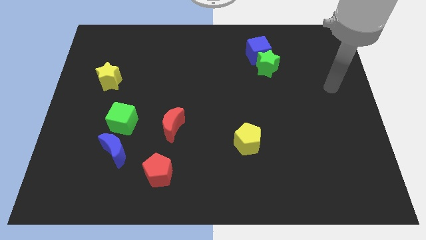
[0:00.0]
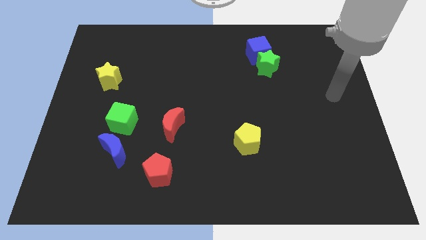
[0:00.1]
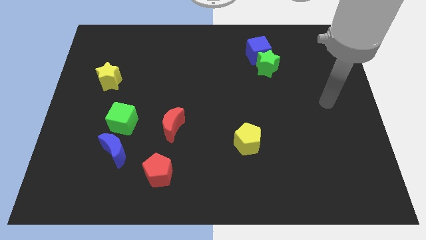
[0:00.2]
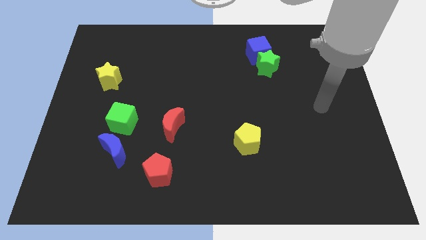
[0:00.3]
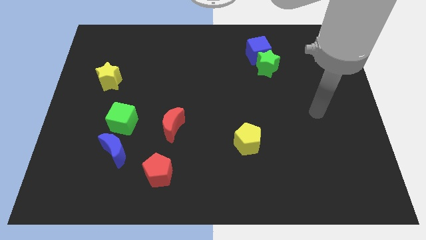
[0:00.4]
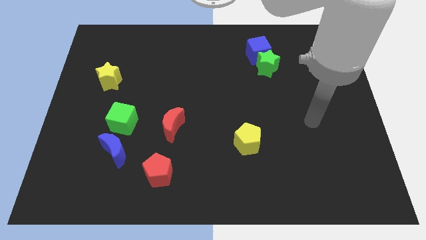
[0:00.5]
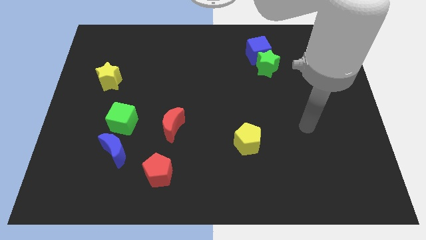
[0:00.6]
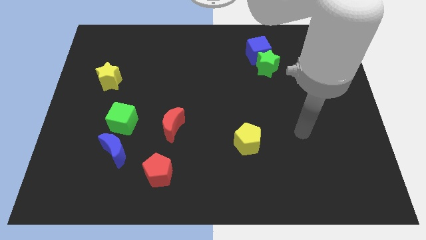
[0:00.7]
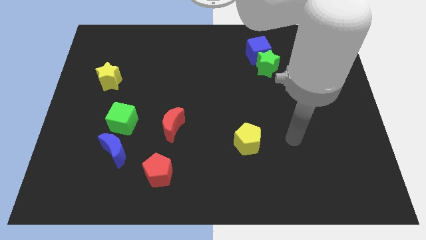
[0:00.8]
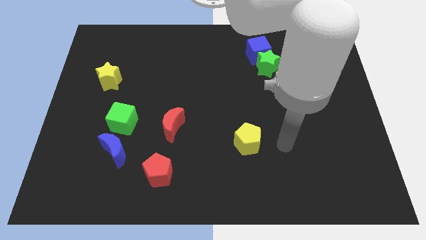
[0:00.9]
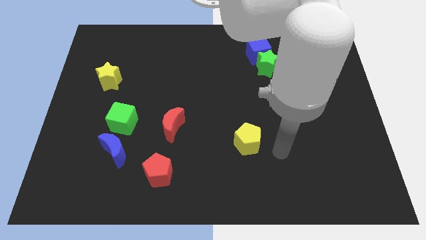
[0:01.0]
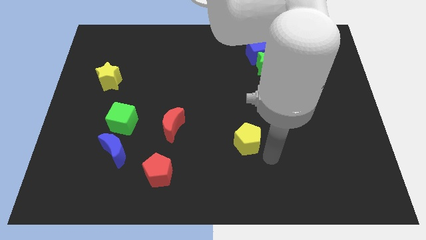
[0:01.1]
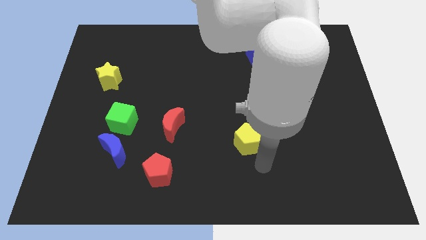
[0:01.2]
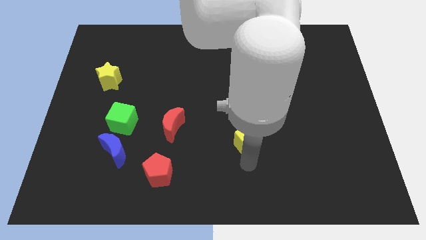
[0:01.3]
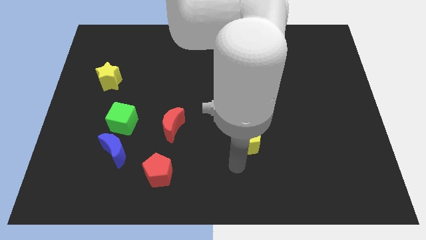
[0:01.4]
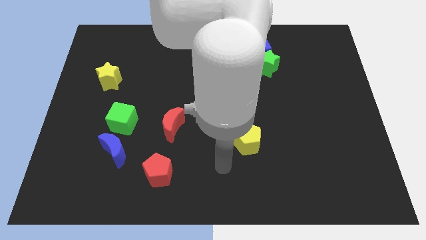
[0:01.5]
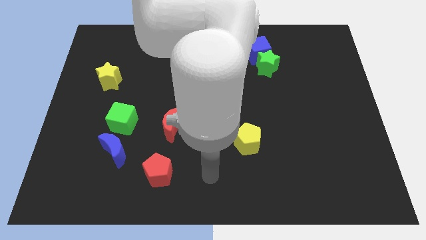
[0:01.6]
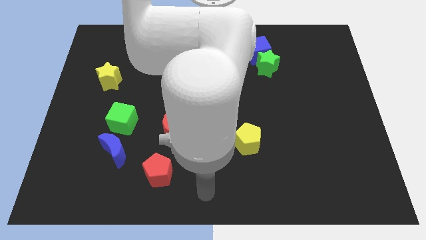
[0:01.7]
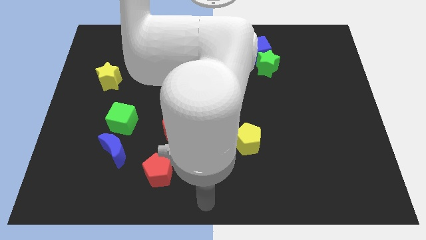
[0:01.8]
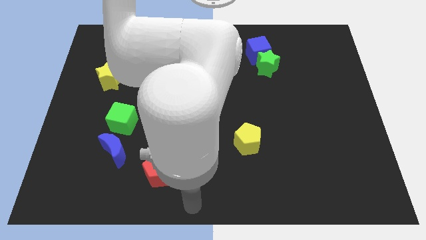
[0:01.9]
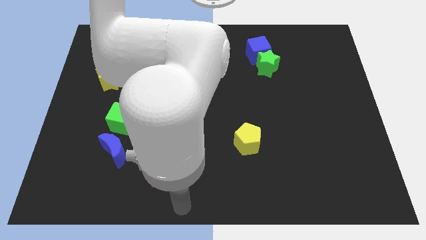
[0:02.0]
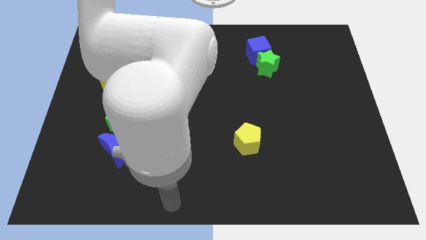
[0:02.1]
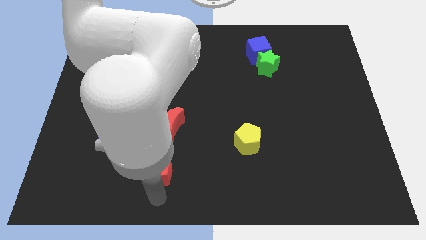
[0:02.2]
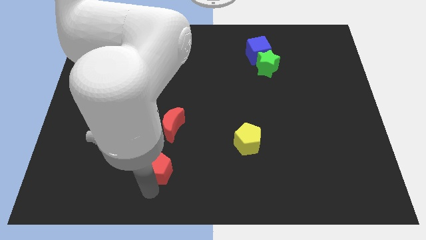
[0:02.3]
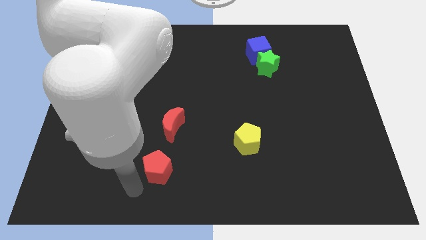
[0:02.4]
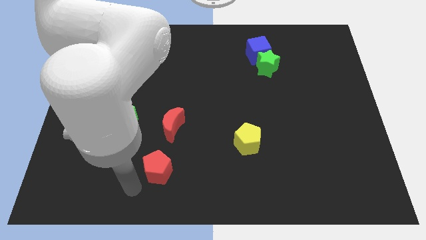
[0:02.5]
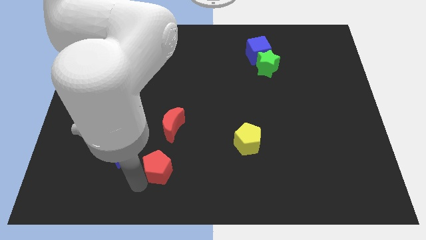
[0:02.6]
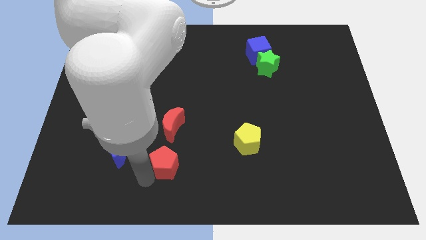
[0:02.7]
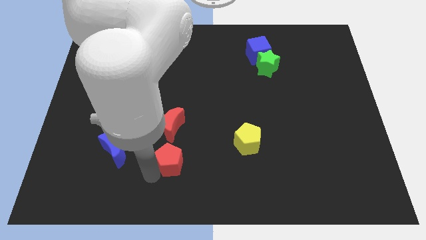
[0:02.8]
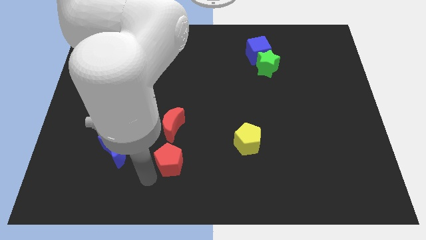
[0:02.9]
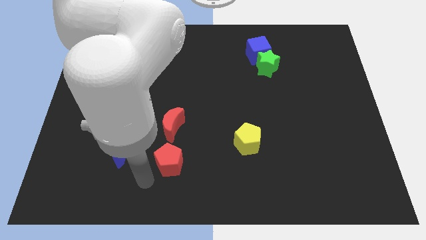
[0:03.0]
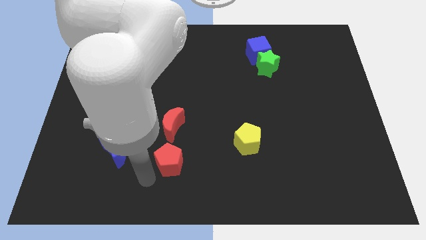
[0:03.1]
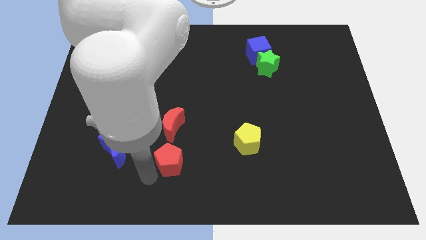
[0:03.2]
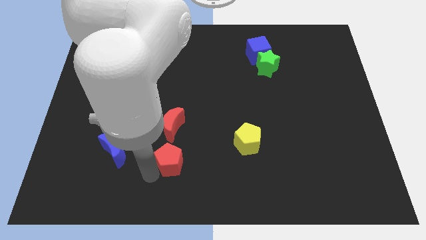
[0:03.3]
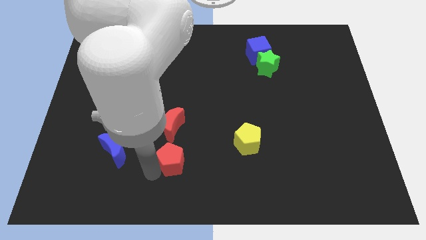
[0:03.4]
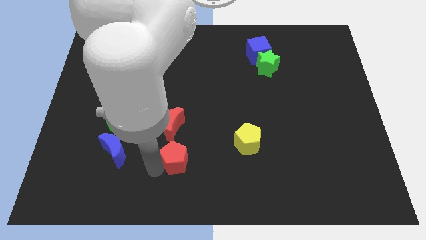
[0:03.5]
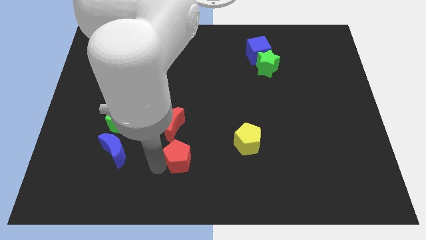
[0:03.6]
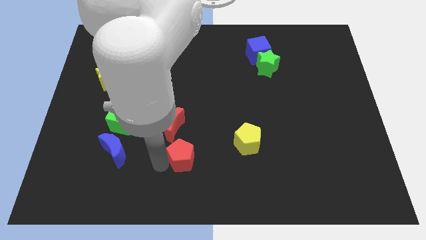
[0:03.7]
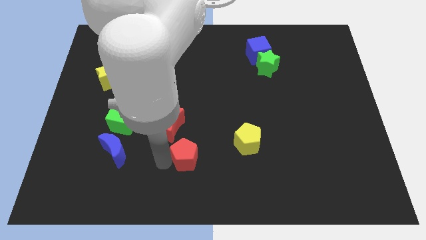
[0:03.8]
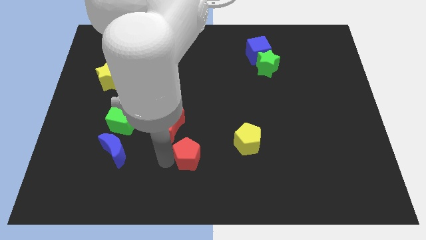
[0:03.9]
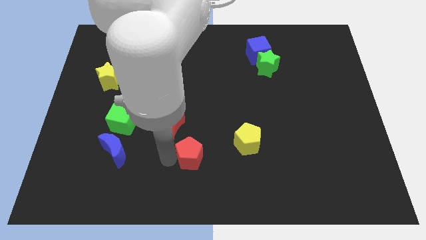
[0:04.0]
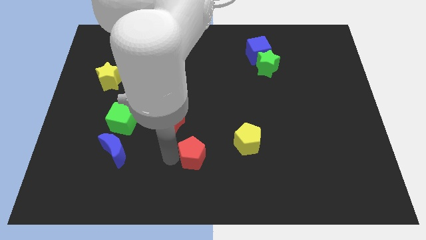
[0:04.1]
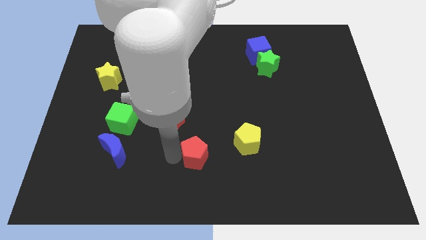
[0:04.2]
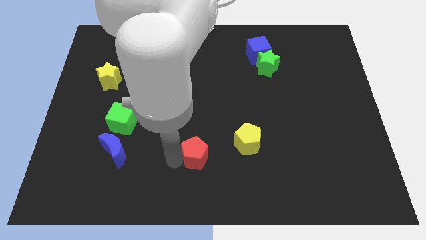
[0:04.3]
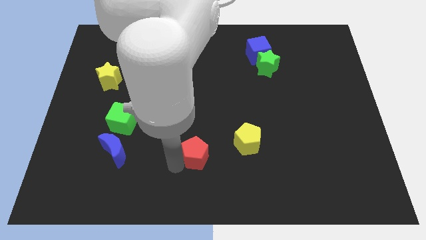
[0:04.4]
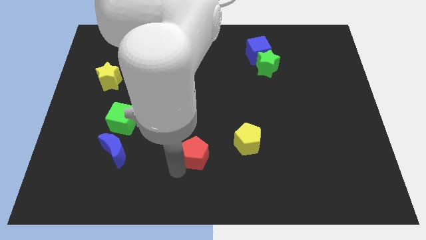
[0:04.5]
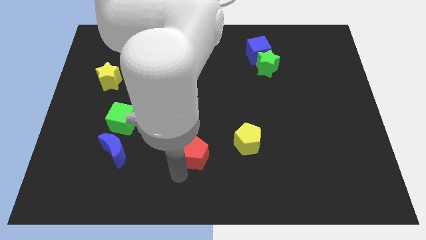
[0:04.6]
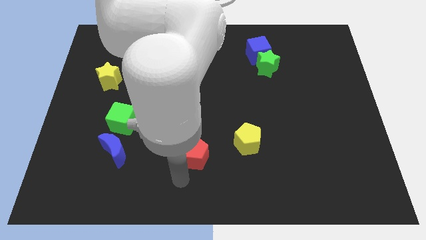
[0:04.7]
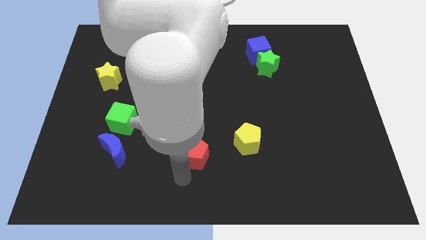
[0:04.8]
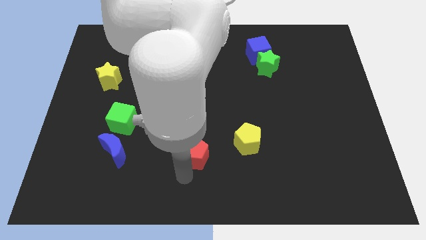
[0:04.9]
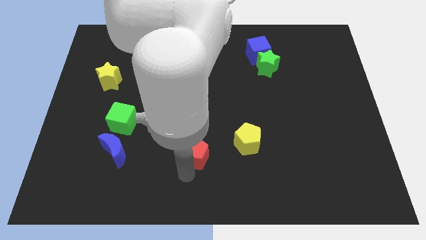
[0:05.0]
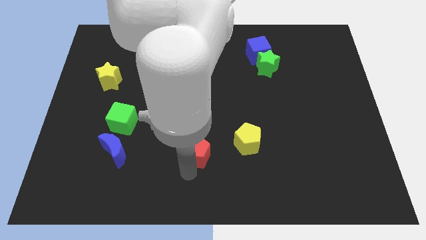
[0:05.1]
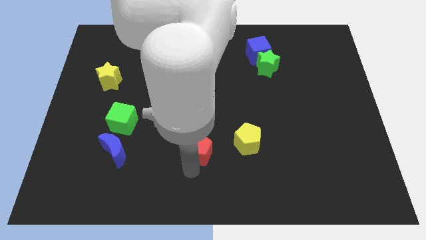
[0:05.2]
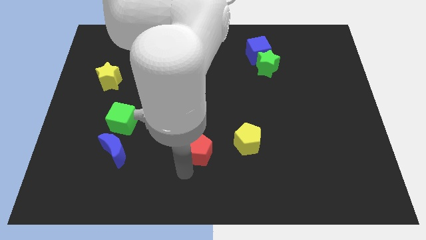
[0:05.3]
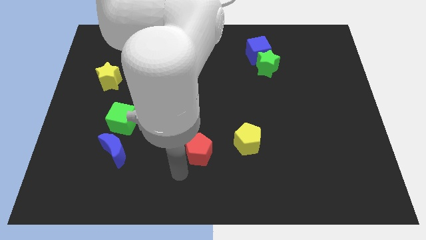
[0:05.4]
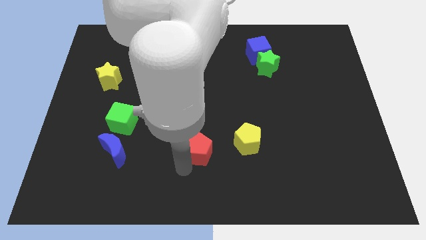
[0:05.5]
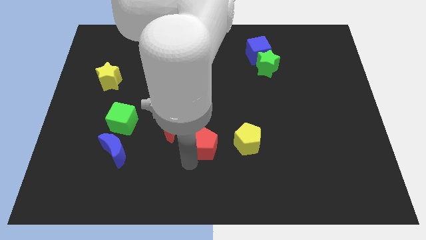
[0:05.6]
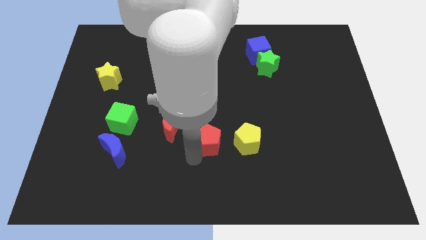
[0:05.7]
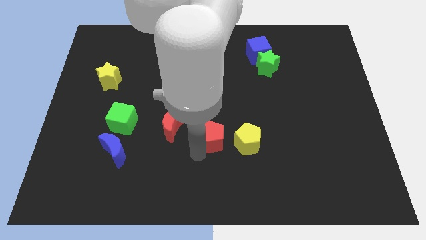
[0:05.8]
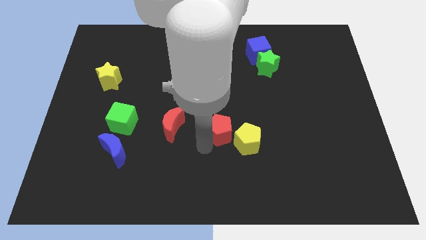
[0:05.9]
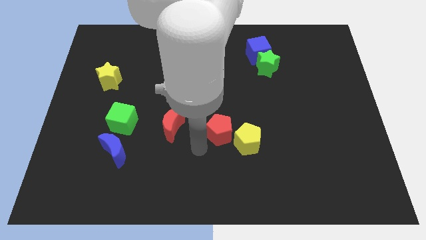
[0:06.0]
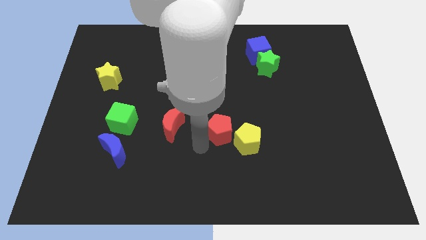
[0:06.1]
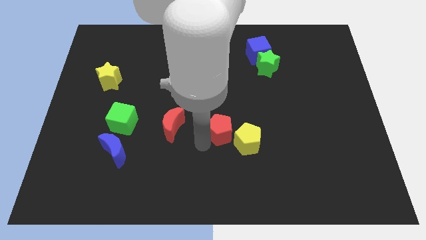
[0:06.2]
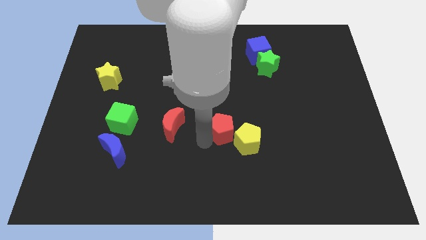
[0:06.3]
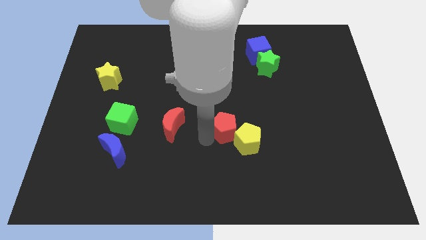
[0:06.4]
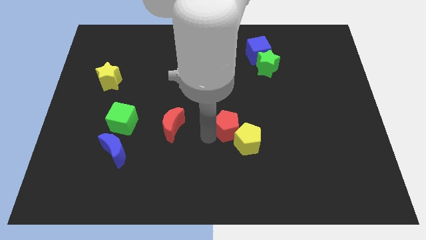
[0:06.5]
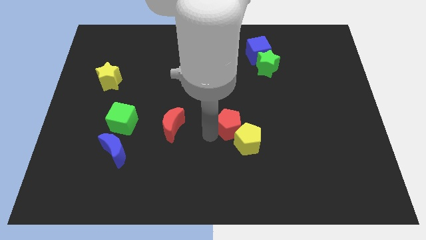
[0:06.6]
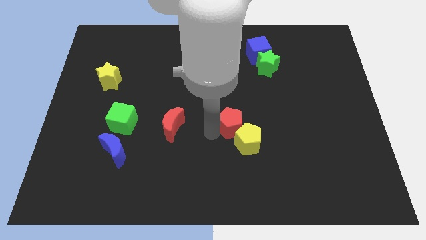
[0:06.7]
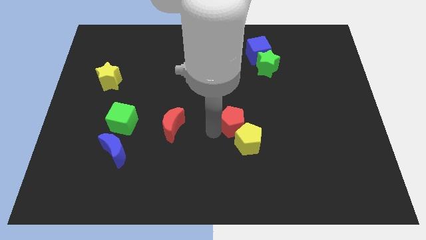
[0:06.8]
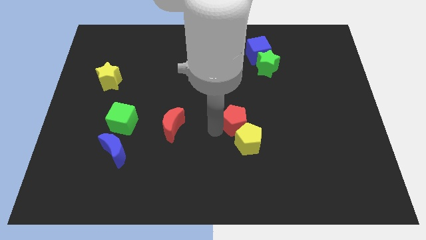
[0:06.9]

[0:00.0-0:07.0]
move the red pentagon upwards and then to the right

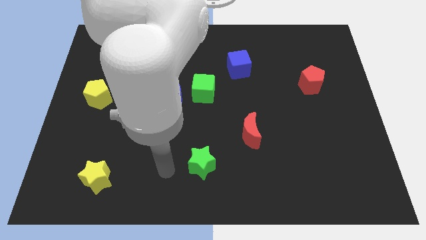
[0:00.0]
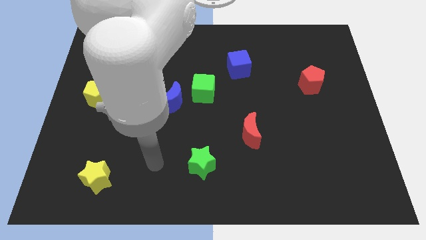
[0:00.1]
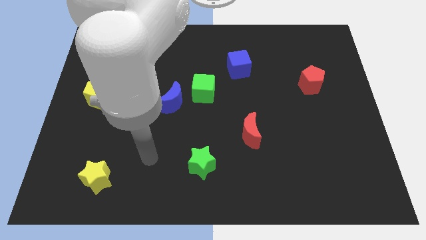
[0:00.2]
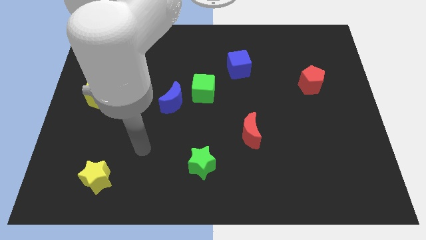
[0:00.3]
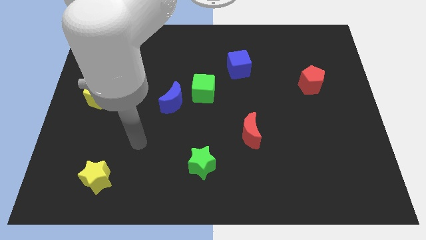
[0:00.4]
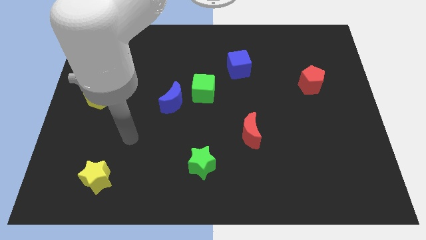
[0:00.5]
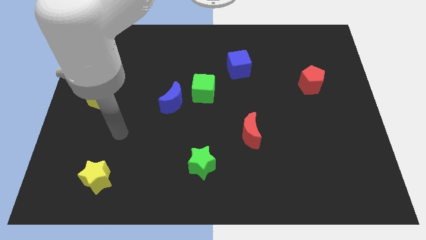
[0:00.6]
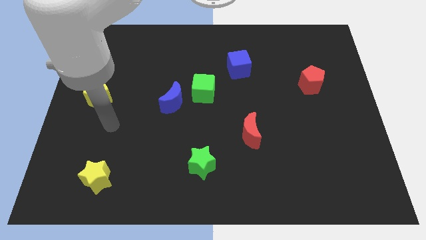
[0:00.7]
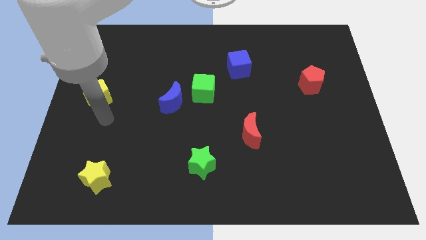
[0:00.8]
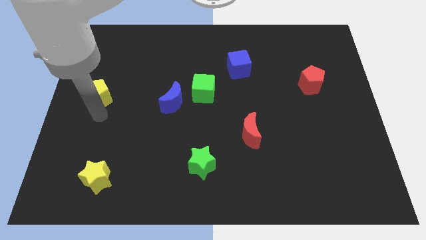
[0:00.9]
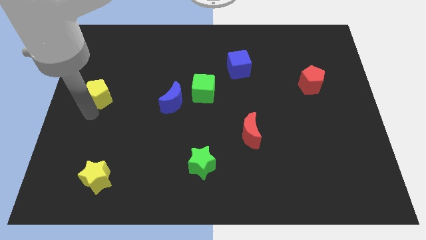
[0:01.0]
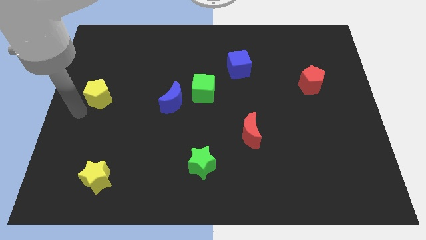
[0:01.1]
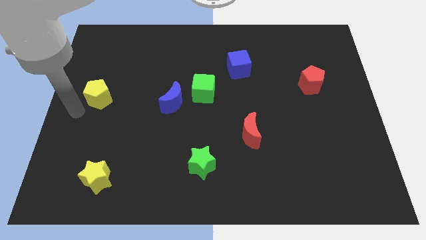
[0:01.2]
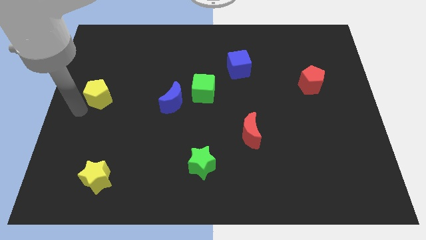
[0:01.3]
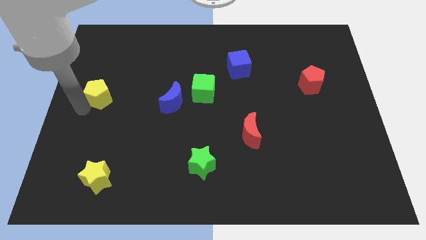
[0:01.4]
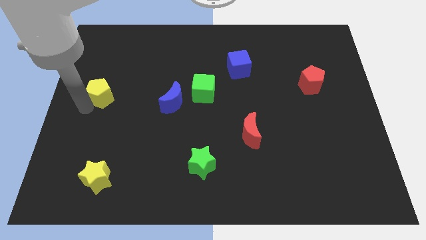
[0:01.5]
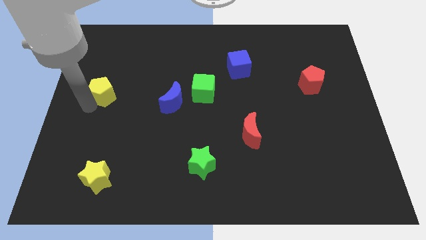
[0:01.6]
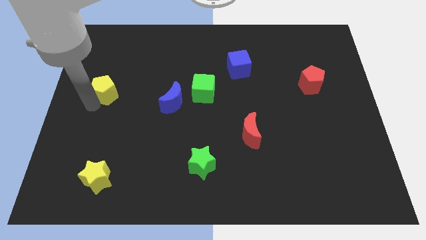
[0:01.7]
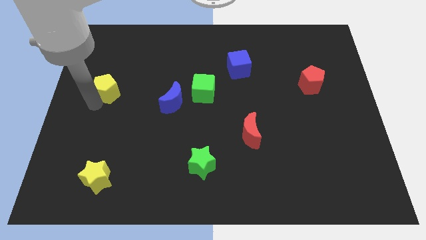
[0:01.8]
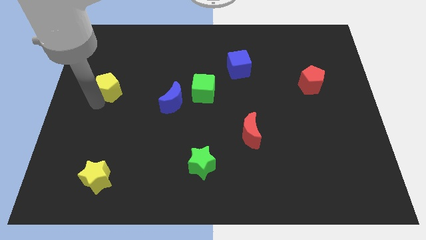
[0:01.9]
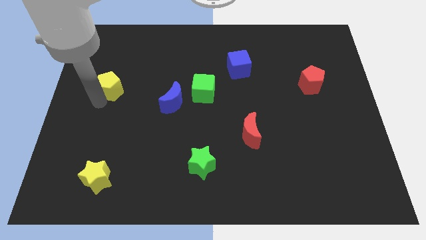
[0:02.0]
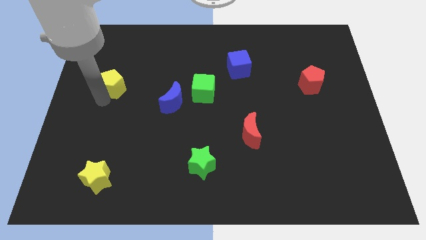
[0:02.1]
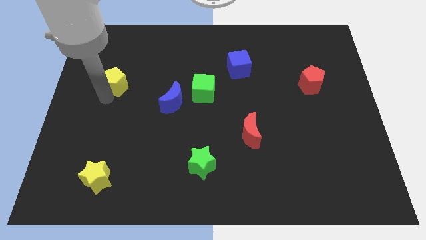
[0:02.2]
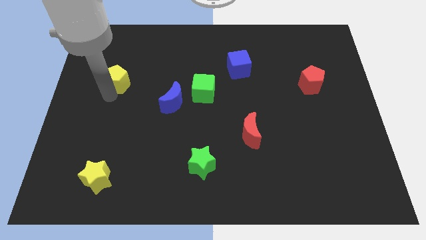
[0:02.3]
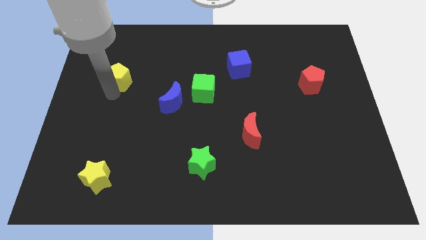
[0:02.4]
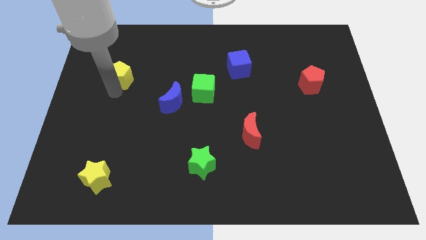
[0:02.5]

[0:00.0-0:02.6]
push the yellow pentagon somewhat up and right
